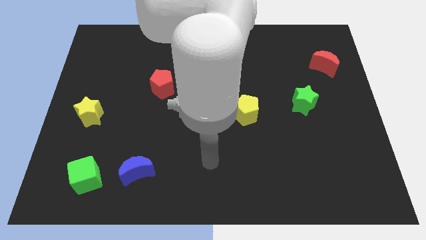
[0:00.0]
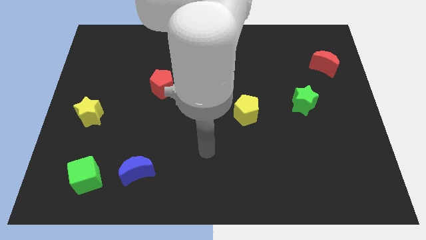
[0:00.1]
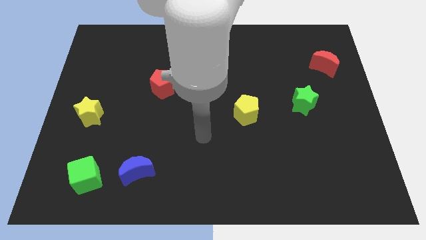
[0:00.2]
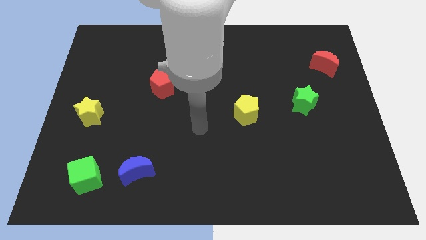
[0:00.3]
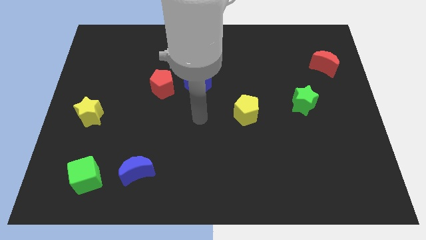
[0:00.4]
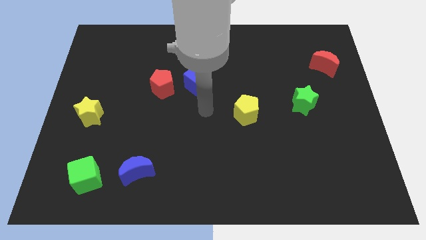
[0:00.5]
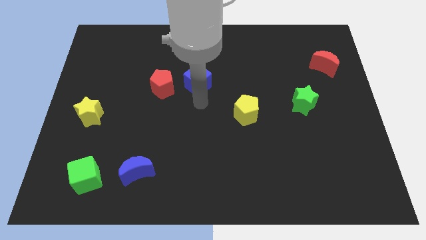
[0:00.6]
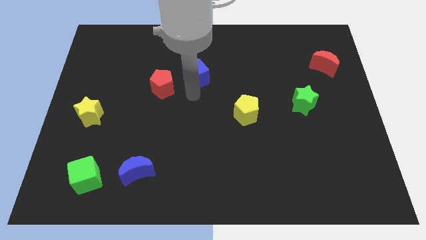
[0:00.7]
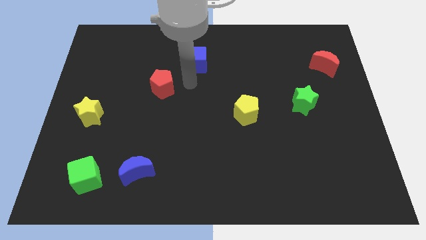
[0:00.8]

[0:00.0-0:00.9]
pull the red pentagon apart from the blue cube

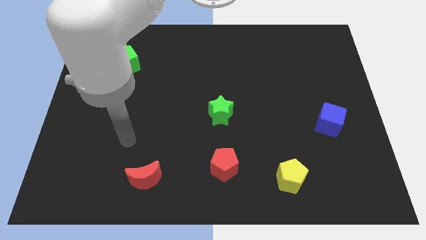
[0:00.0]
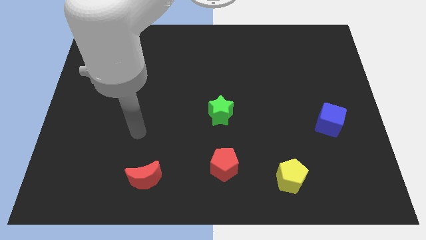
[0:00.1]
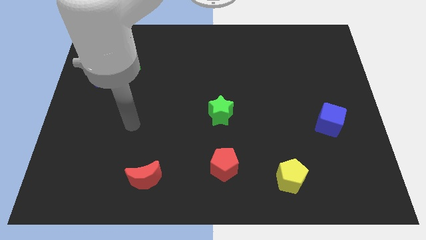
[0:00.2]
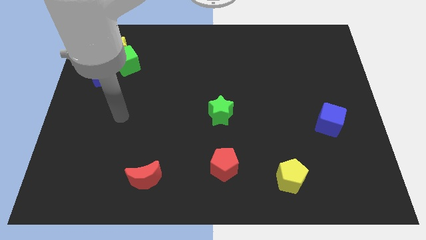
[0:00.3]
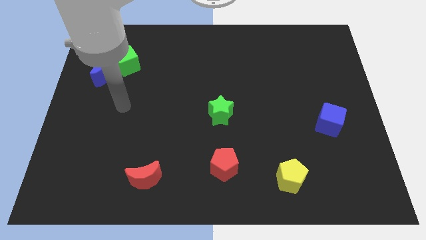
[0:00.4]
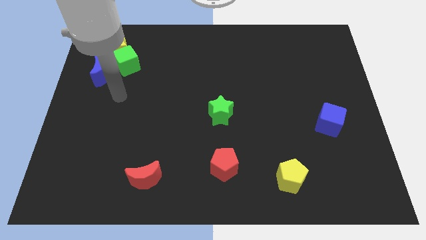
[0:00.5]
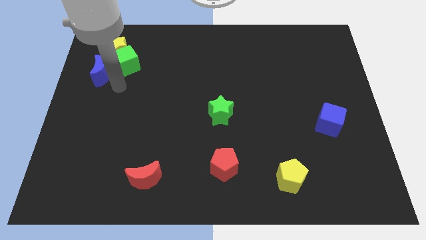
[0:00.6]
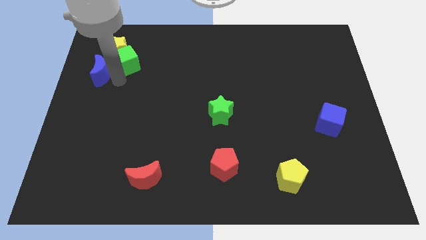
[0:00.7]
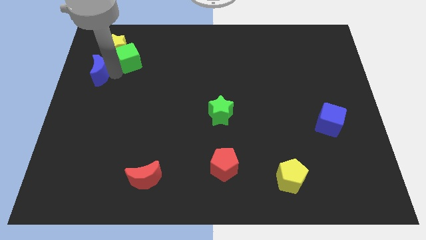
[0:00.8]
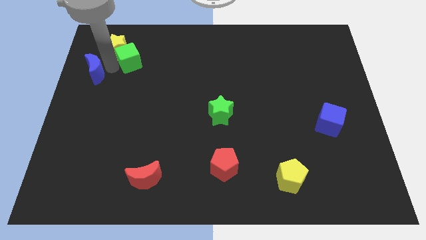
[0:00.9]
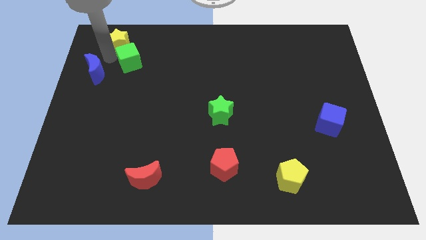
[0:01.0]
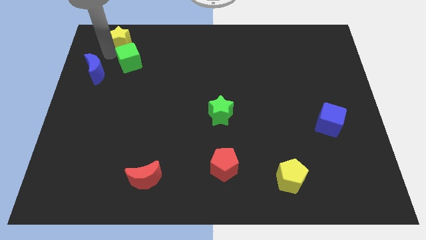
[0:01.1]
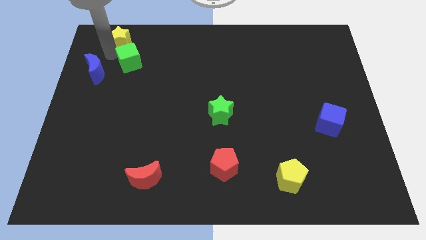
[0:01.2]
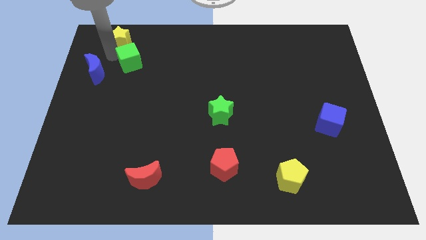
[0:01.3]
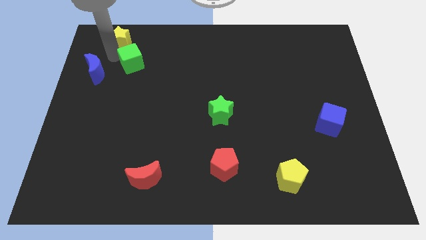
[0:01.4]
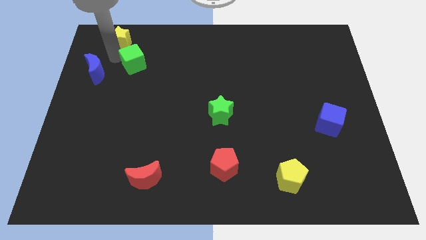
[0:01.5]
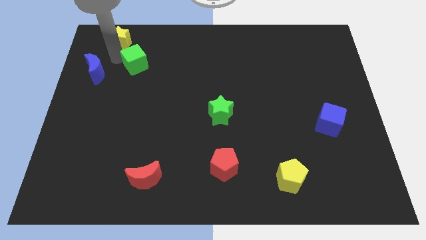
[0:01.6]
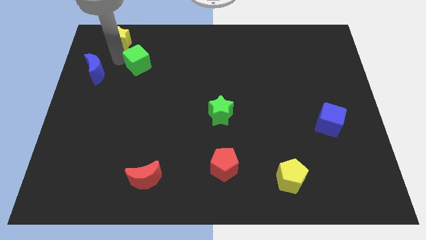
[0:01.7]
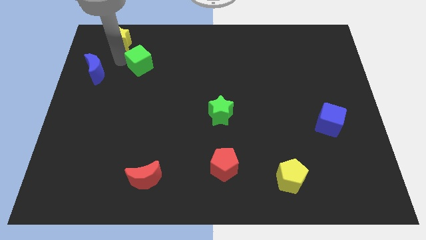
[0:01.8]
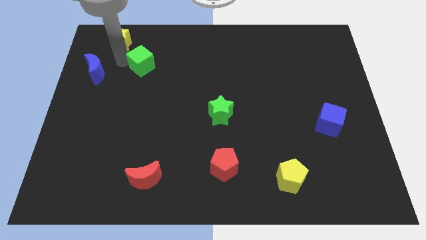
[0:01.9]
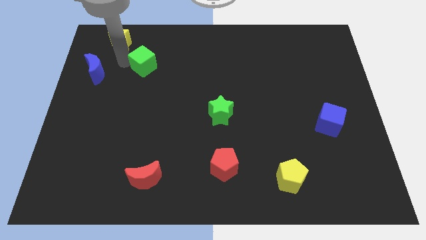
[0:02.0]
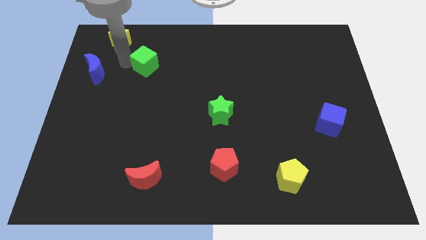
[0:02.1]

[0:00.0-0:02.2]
pull the green cube apart from the yellow star and blue moon

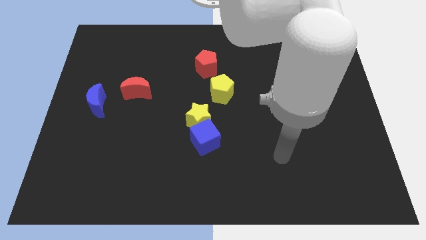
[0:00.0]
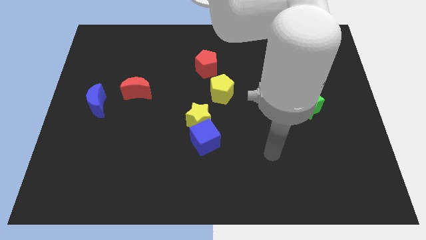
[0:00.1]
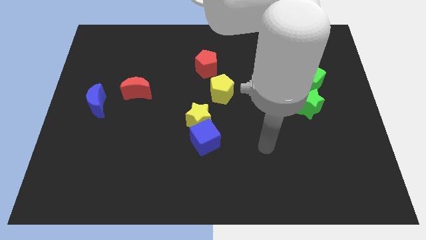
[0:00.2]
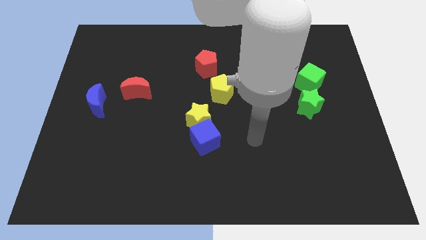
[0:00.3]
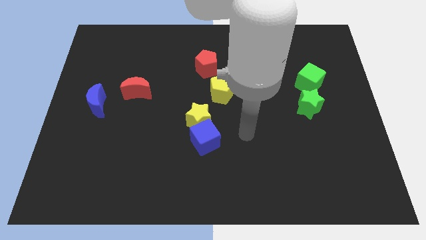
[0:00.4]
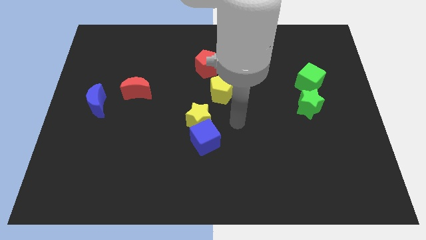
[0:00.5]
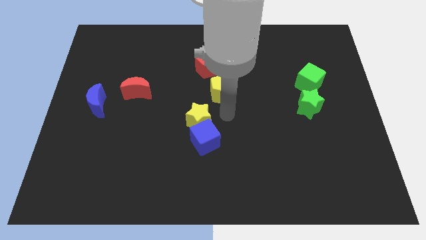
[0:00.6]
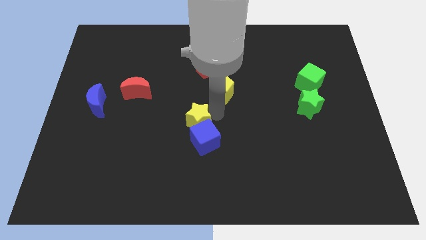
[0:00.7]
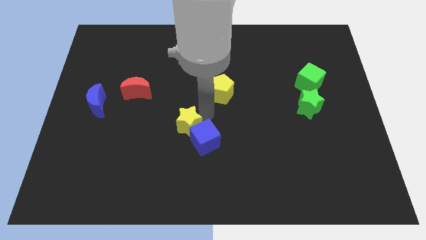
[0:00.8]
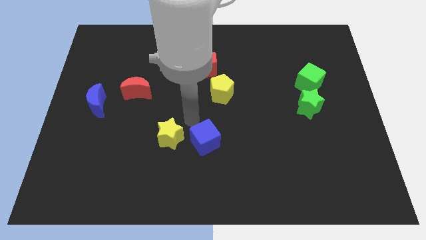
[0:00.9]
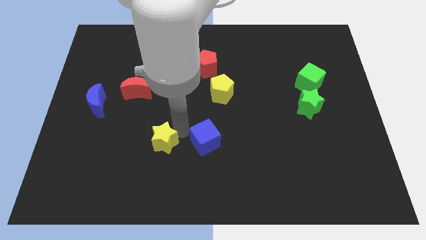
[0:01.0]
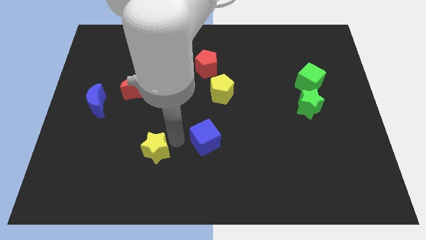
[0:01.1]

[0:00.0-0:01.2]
pull the blue cube apart from the yellow star

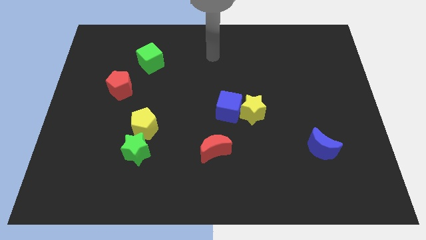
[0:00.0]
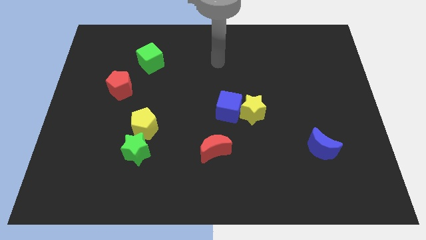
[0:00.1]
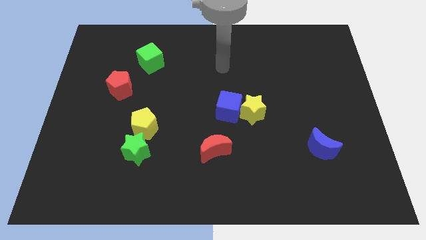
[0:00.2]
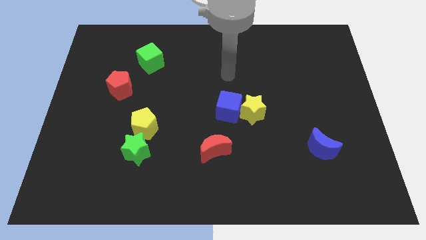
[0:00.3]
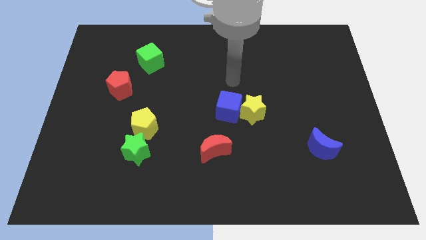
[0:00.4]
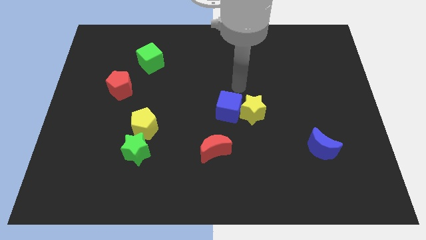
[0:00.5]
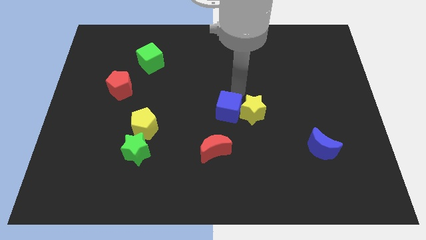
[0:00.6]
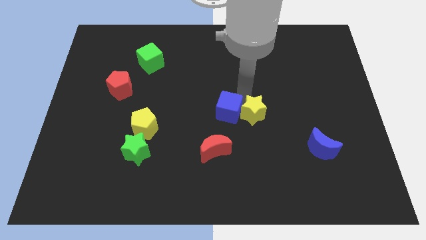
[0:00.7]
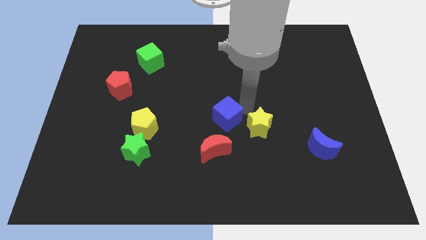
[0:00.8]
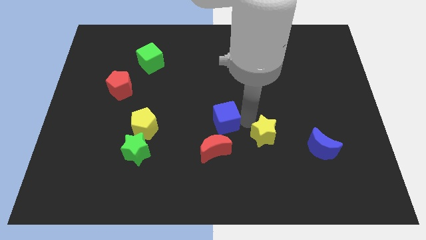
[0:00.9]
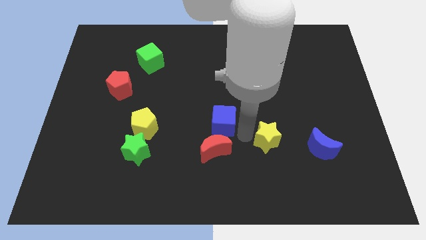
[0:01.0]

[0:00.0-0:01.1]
separate the blue cube from the yellow star

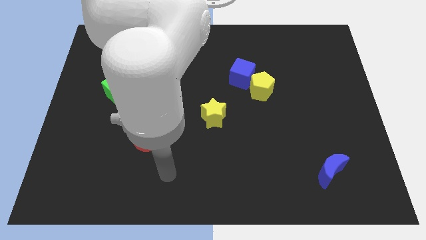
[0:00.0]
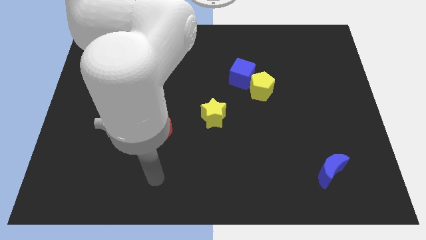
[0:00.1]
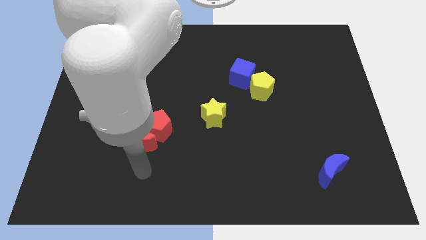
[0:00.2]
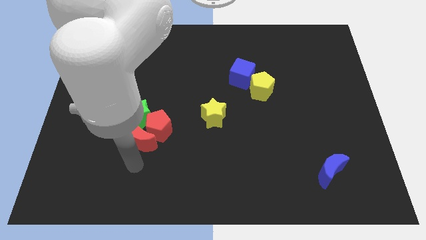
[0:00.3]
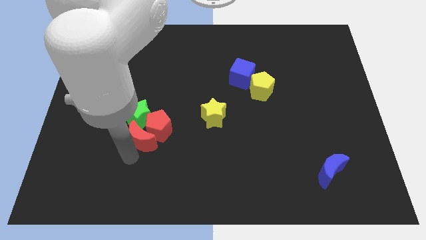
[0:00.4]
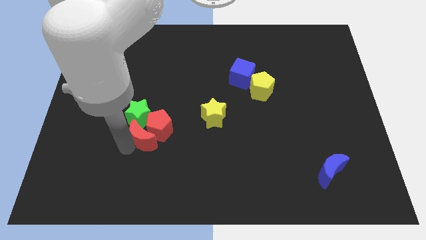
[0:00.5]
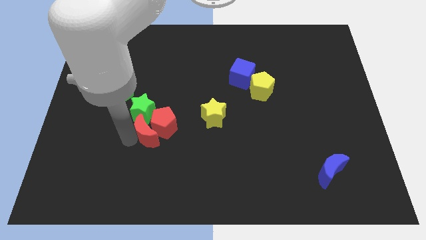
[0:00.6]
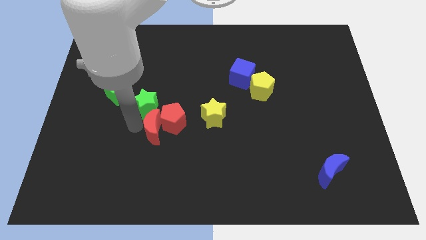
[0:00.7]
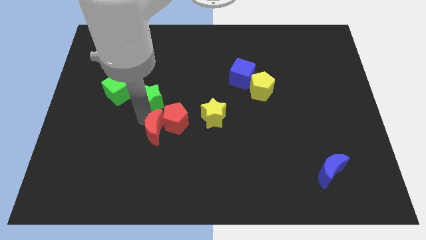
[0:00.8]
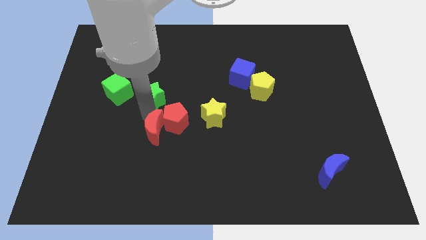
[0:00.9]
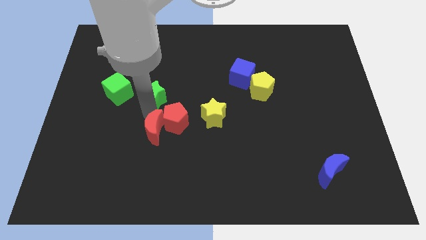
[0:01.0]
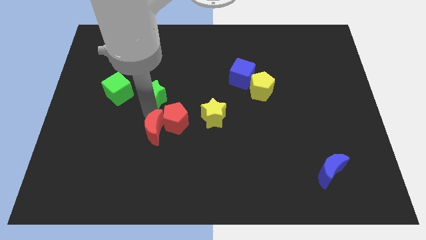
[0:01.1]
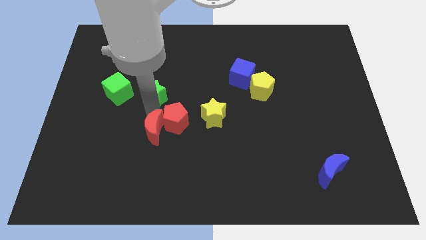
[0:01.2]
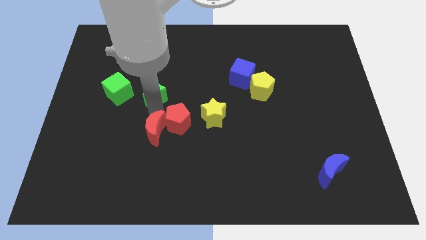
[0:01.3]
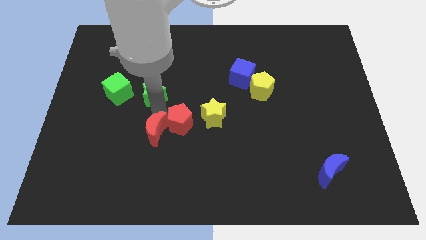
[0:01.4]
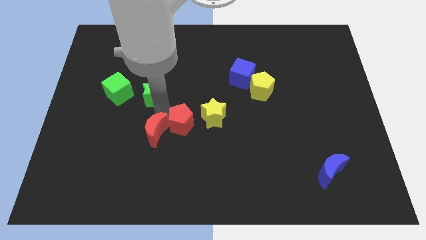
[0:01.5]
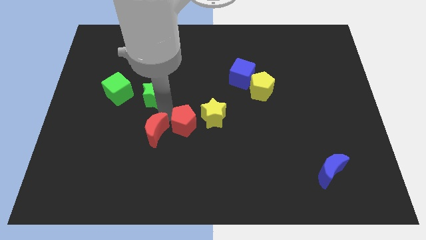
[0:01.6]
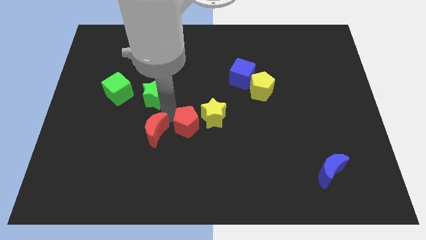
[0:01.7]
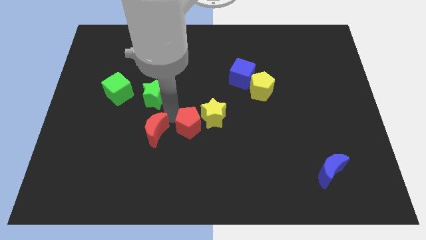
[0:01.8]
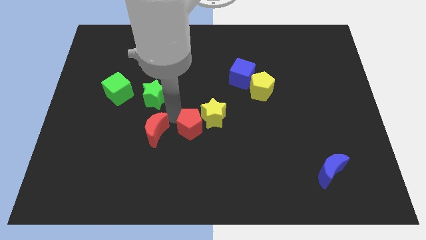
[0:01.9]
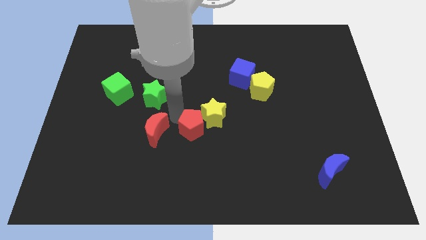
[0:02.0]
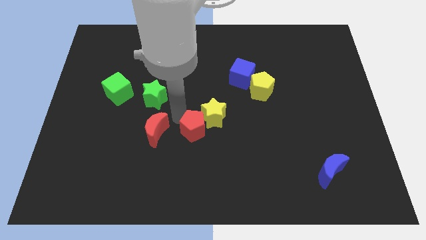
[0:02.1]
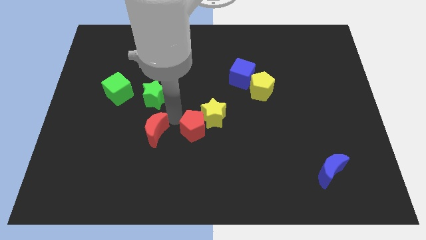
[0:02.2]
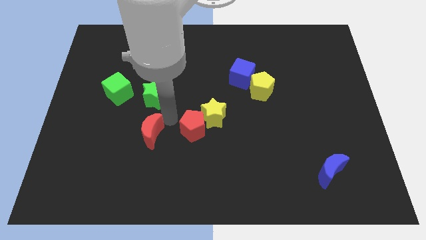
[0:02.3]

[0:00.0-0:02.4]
move the red pentagon away from the red moon and green star

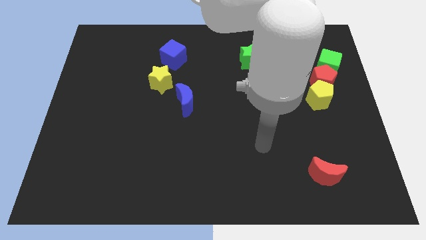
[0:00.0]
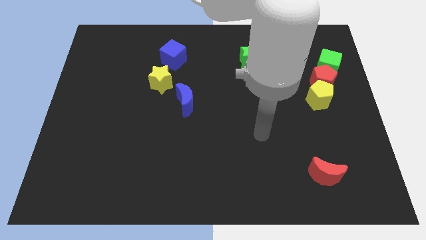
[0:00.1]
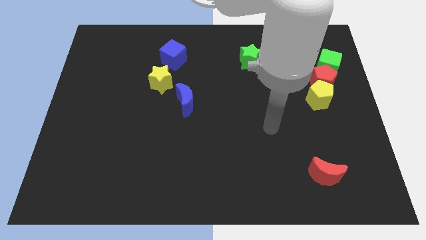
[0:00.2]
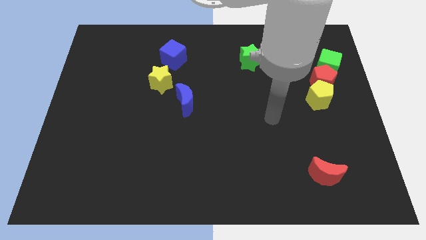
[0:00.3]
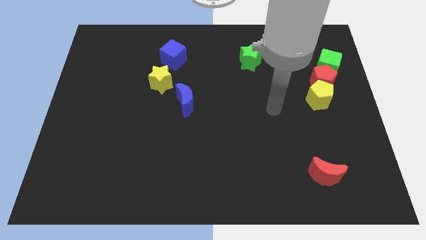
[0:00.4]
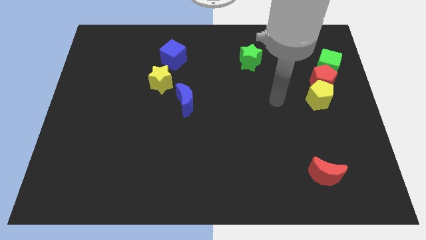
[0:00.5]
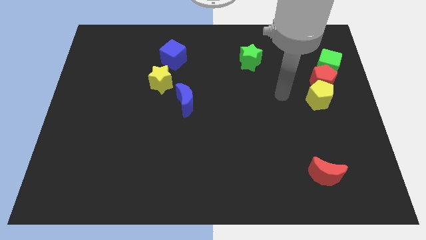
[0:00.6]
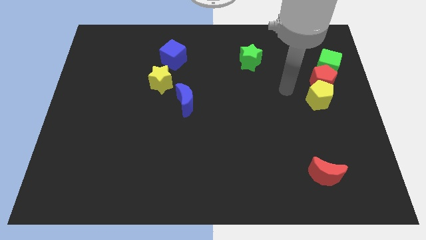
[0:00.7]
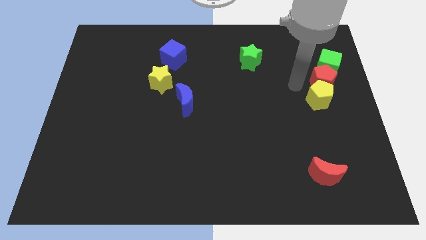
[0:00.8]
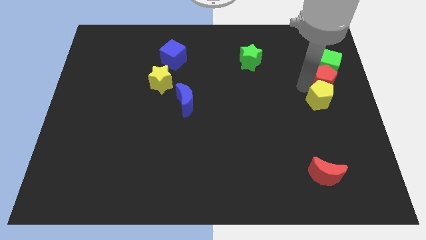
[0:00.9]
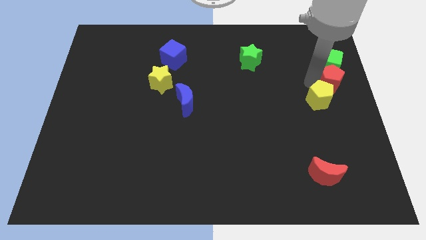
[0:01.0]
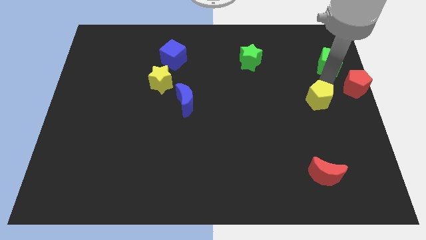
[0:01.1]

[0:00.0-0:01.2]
pull the yellow pentagon apart from the red pentagon

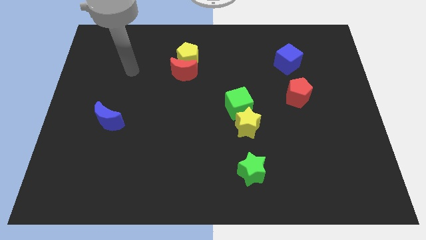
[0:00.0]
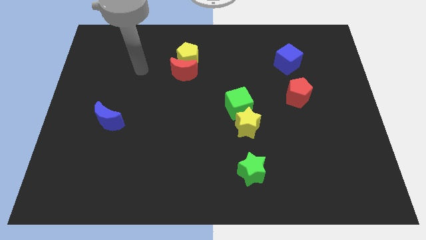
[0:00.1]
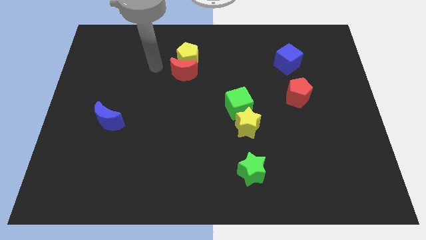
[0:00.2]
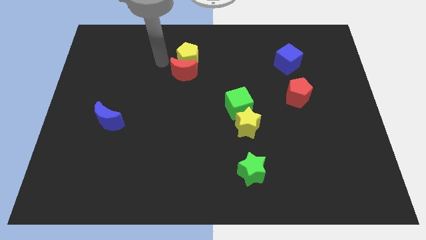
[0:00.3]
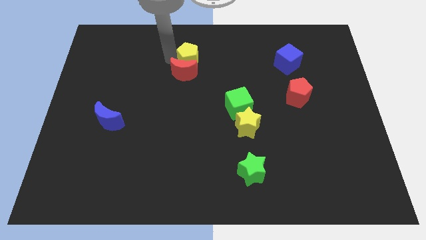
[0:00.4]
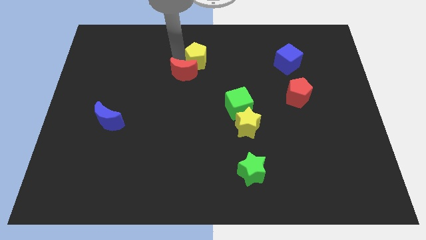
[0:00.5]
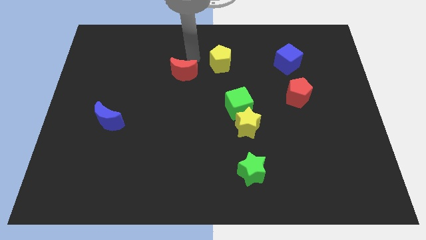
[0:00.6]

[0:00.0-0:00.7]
move the red moon away from the yellow pentagon
